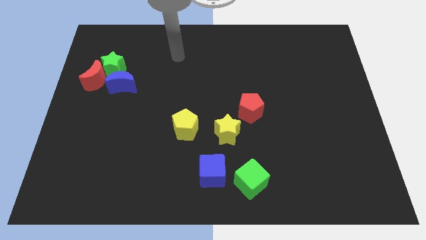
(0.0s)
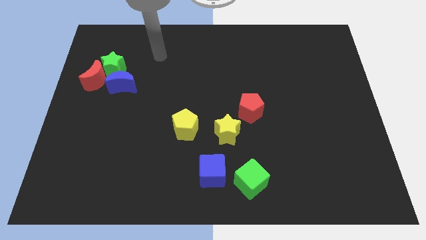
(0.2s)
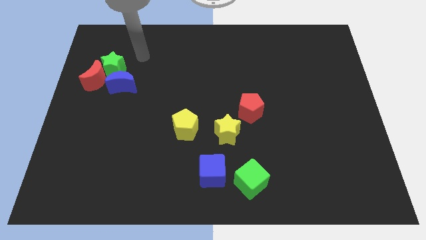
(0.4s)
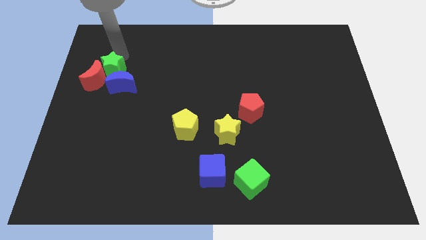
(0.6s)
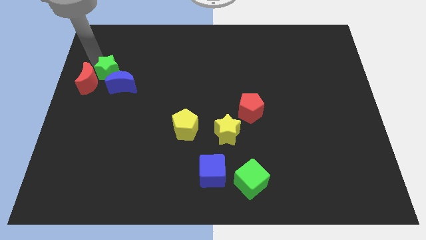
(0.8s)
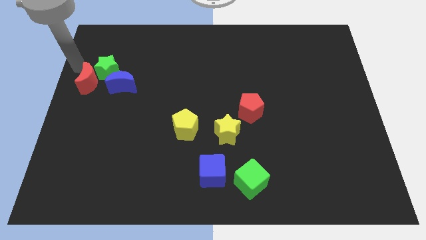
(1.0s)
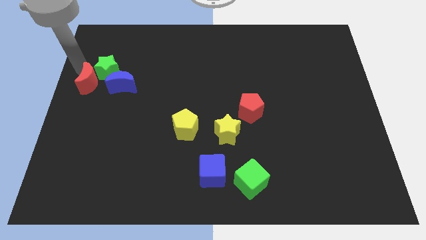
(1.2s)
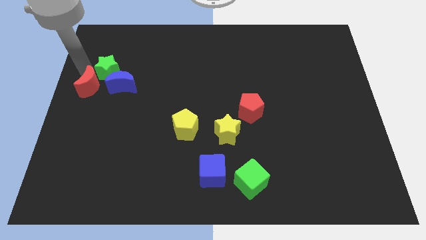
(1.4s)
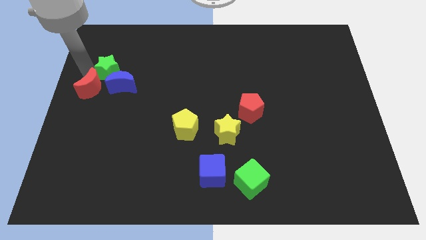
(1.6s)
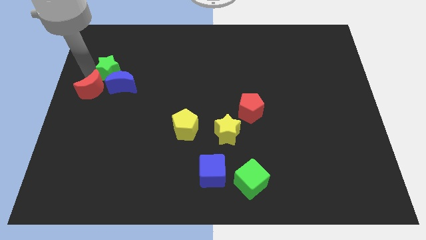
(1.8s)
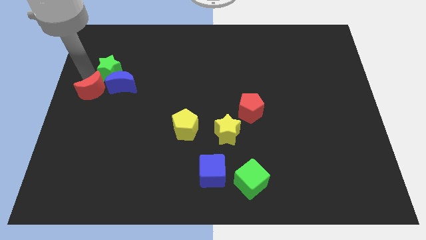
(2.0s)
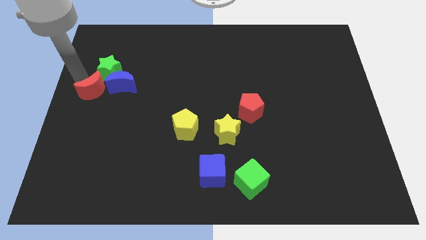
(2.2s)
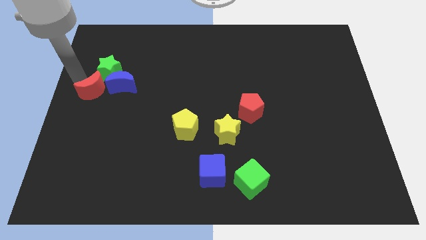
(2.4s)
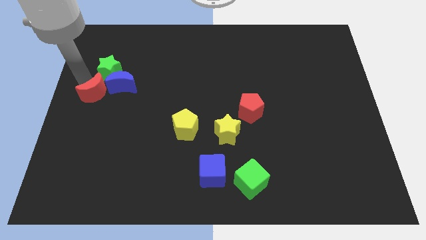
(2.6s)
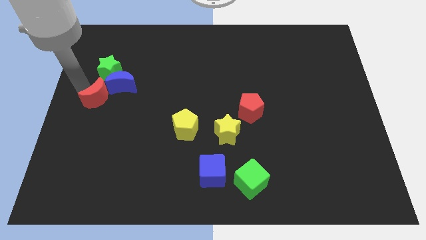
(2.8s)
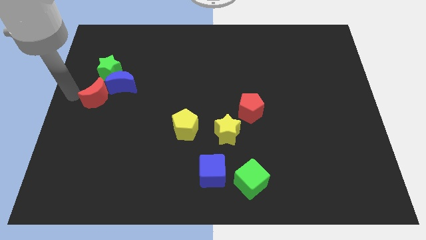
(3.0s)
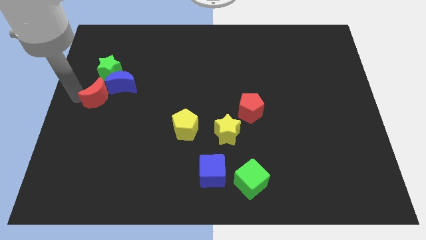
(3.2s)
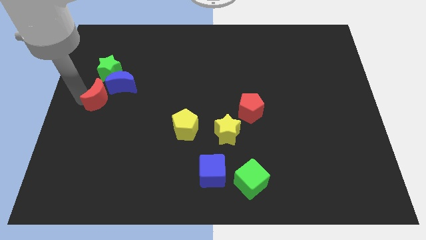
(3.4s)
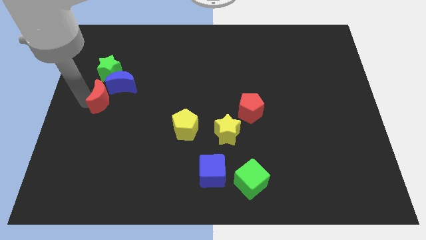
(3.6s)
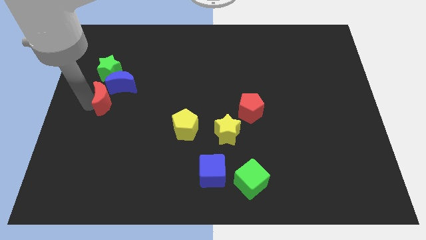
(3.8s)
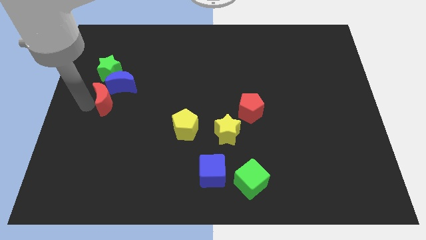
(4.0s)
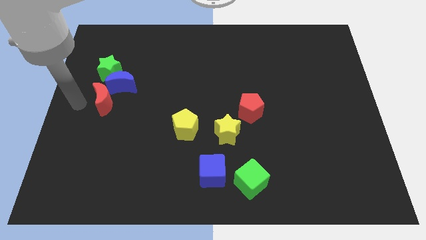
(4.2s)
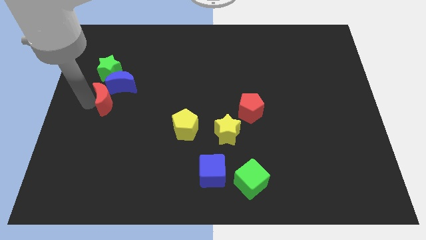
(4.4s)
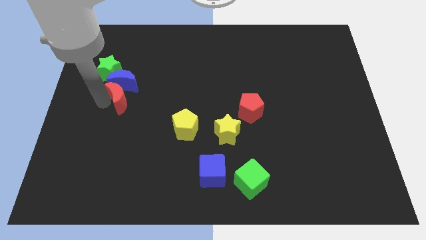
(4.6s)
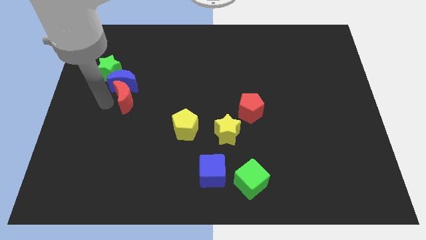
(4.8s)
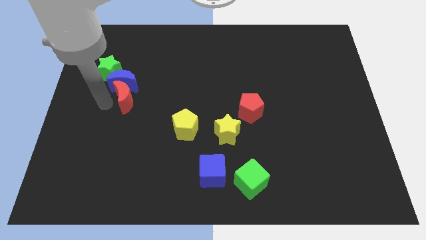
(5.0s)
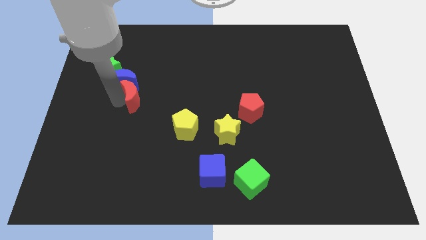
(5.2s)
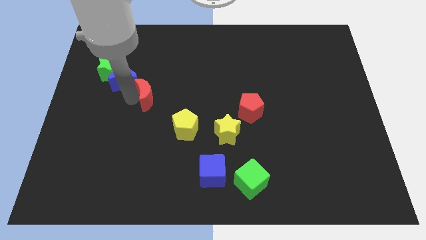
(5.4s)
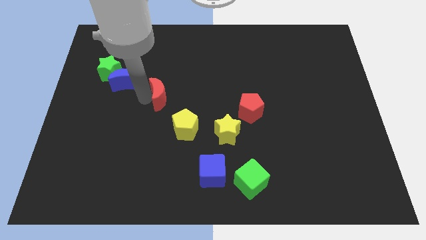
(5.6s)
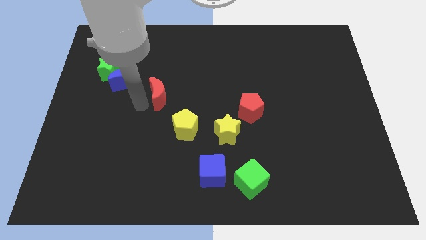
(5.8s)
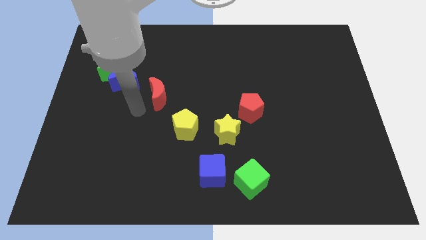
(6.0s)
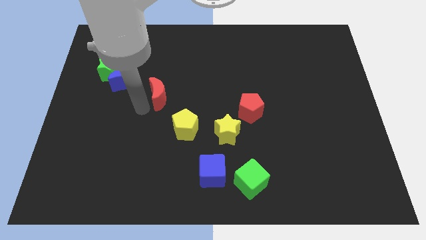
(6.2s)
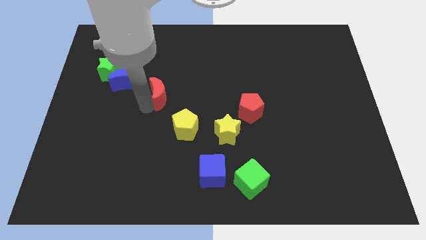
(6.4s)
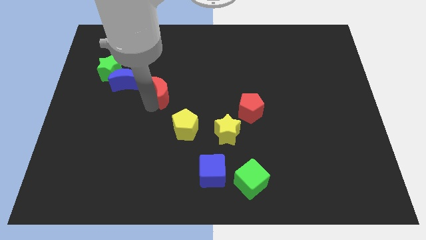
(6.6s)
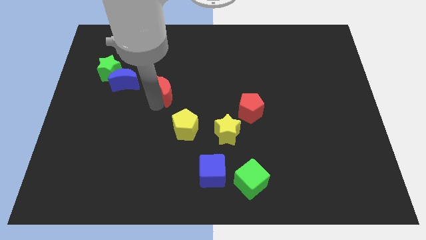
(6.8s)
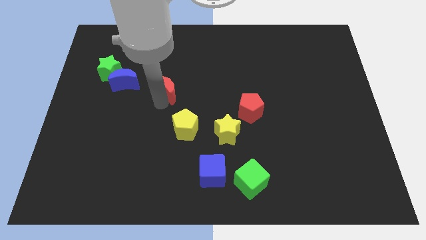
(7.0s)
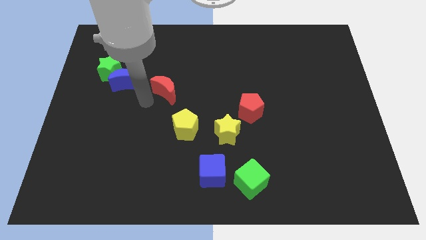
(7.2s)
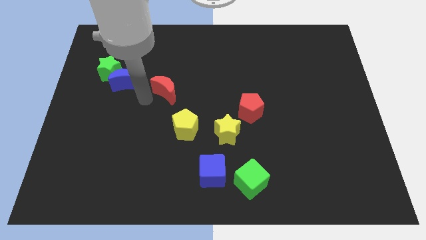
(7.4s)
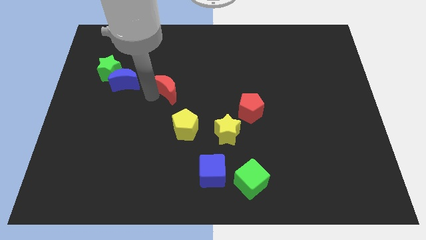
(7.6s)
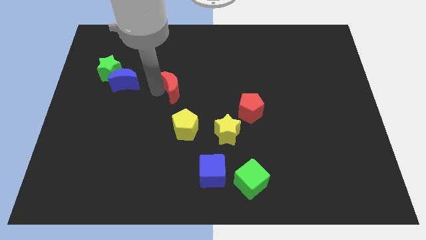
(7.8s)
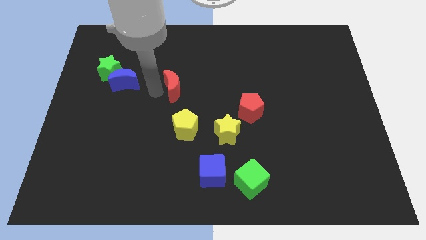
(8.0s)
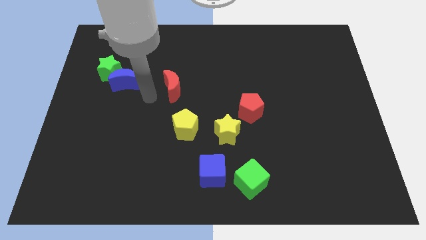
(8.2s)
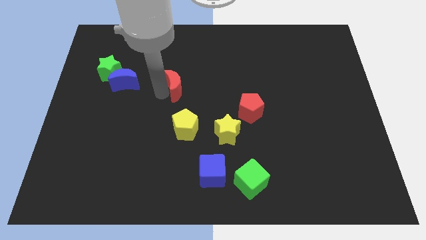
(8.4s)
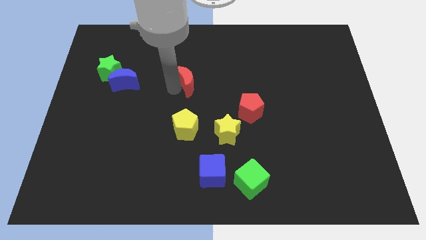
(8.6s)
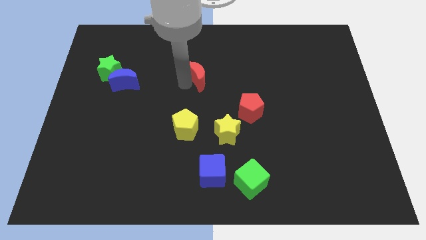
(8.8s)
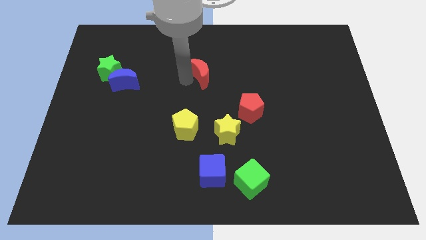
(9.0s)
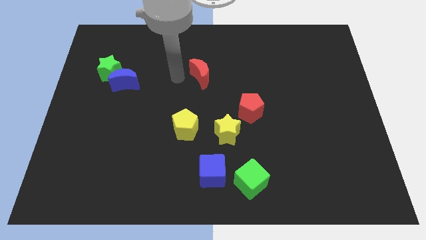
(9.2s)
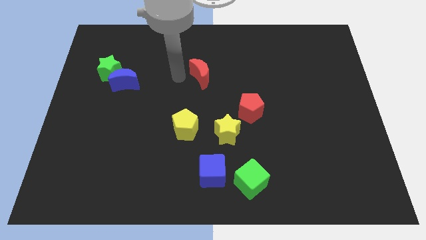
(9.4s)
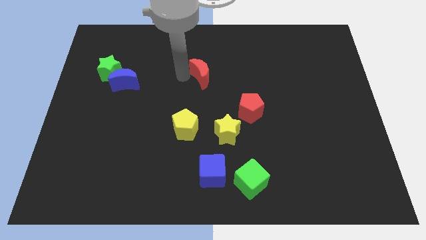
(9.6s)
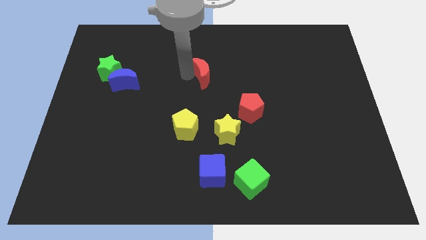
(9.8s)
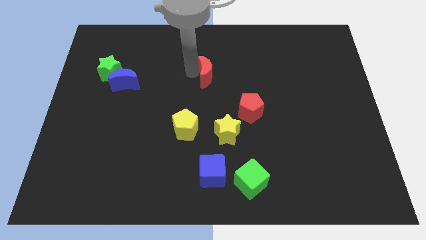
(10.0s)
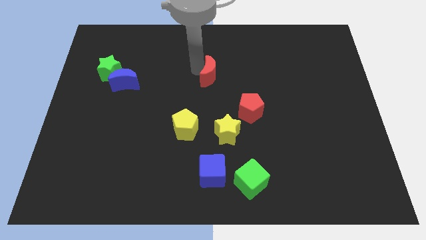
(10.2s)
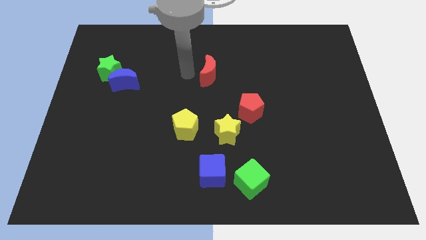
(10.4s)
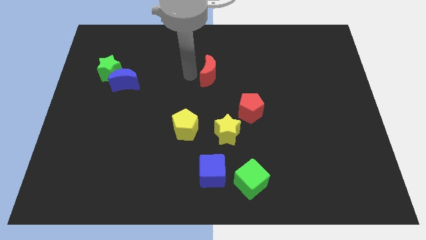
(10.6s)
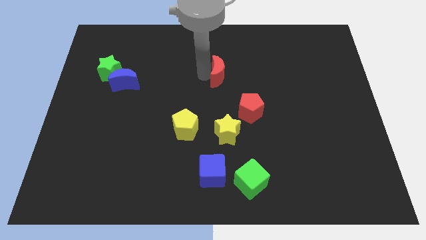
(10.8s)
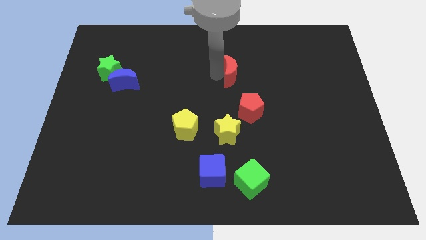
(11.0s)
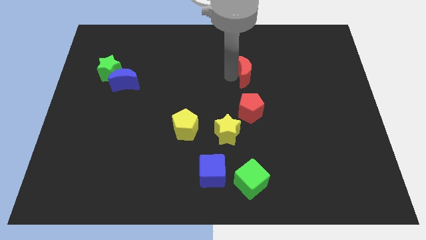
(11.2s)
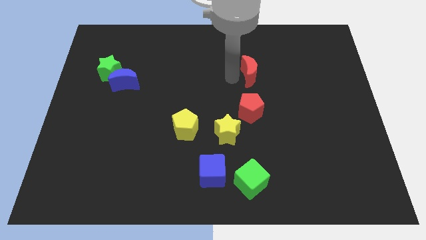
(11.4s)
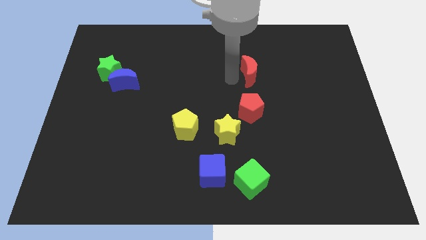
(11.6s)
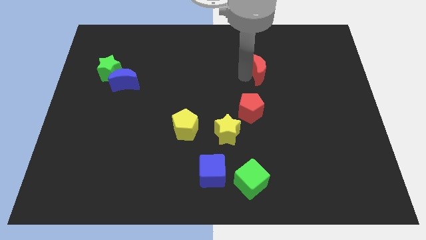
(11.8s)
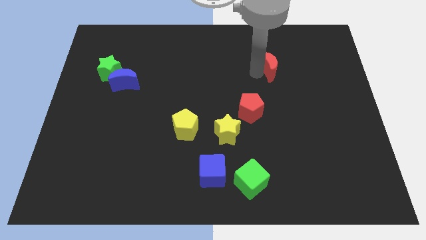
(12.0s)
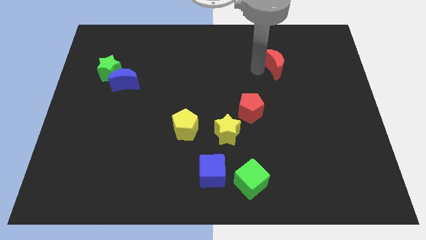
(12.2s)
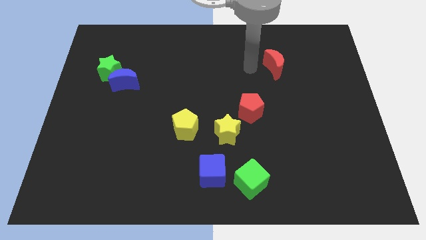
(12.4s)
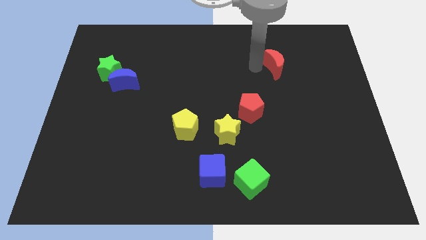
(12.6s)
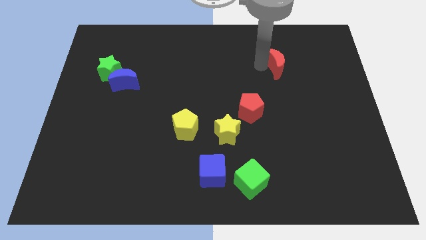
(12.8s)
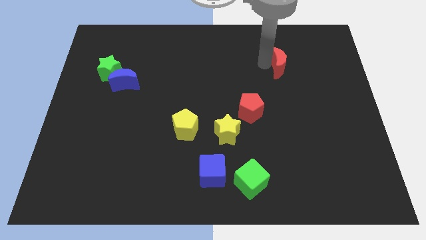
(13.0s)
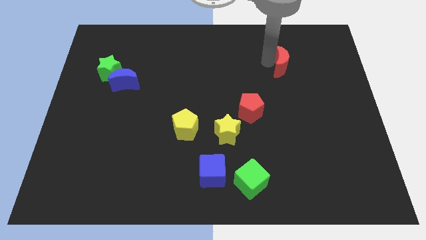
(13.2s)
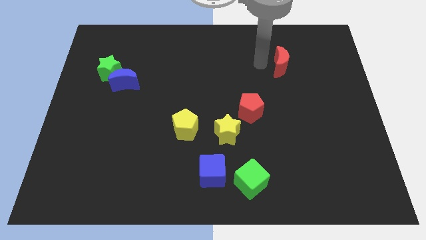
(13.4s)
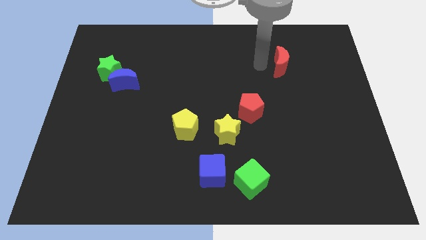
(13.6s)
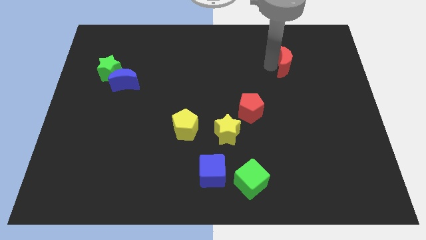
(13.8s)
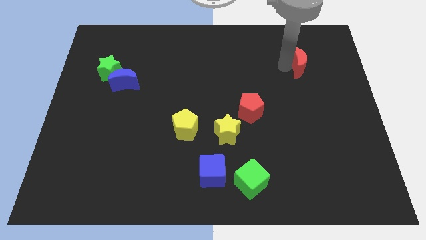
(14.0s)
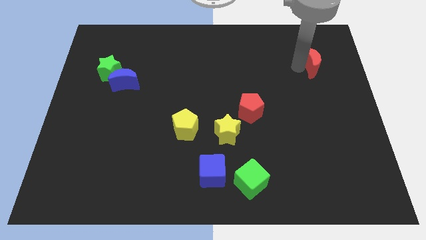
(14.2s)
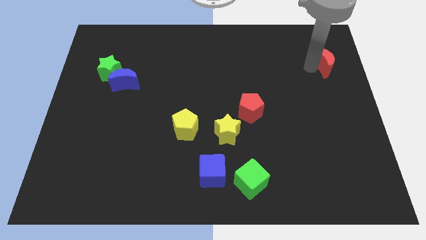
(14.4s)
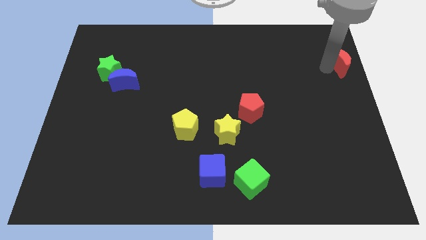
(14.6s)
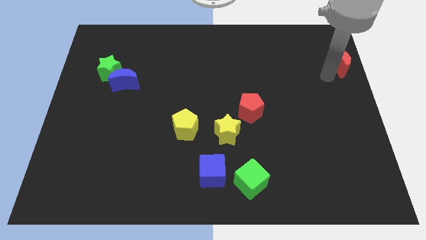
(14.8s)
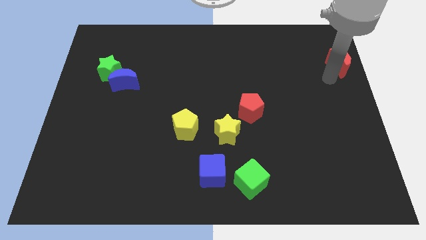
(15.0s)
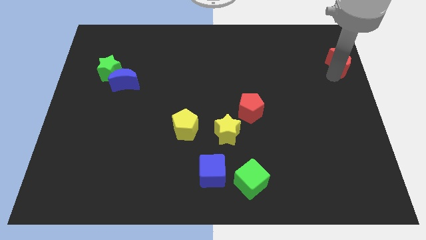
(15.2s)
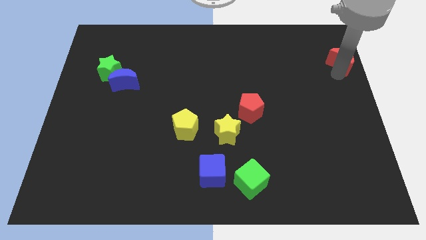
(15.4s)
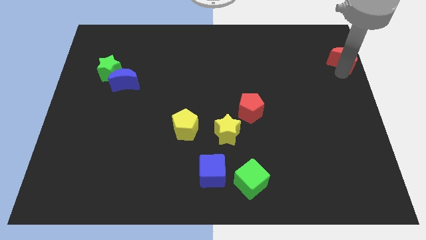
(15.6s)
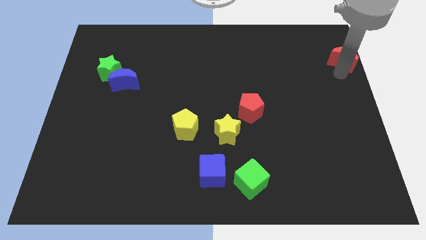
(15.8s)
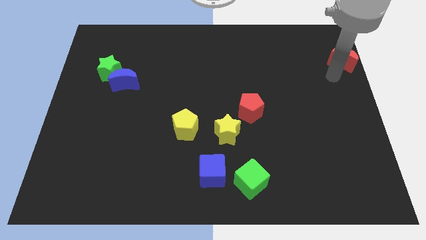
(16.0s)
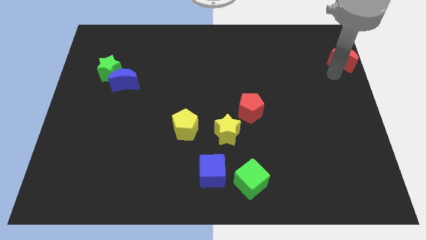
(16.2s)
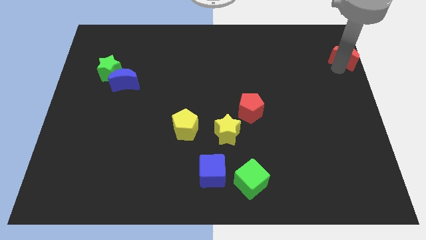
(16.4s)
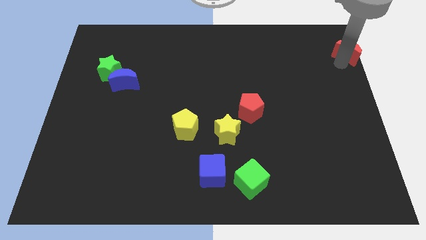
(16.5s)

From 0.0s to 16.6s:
put the red moon to the top right corner
